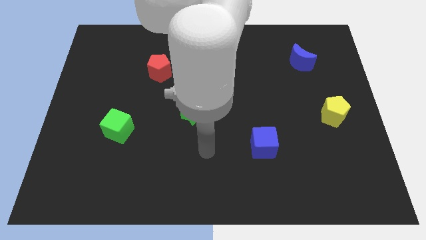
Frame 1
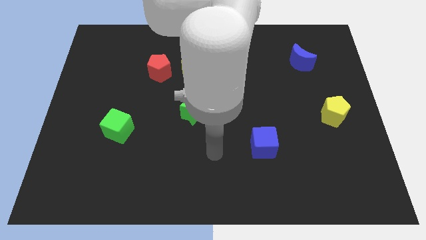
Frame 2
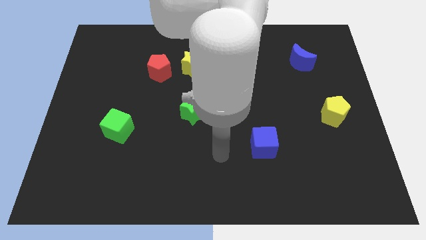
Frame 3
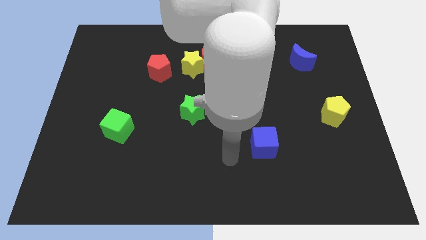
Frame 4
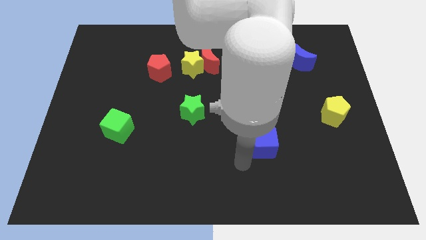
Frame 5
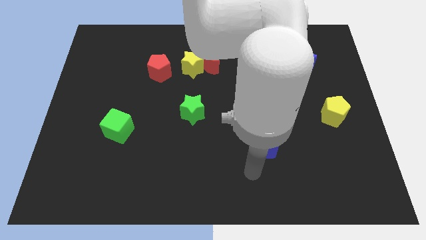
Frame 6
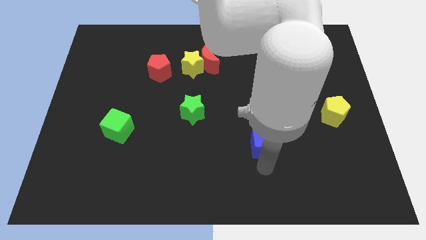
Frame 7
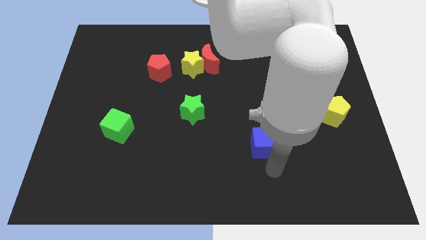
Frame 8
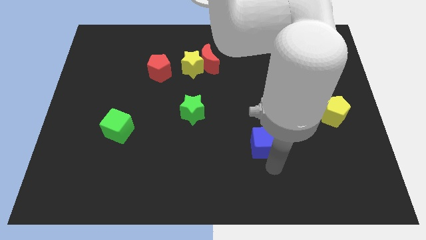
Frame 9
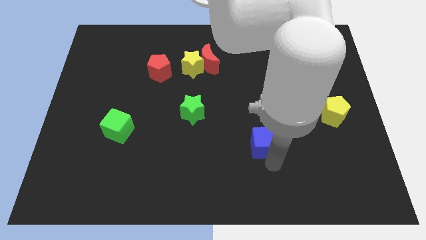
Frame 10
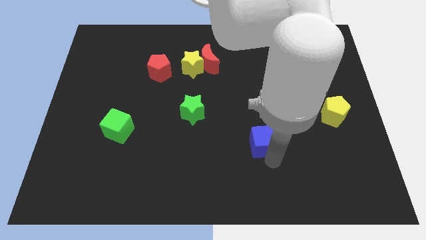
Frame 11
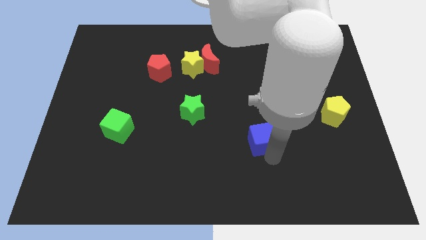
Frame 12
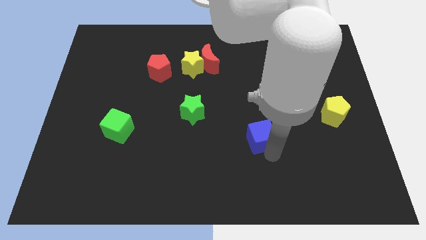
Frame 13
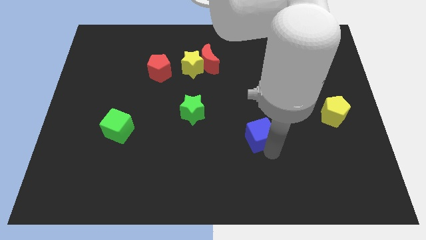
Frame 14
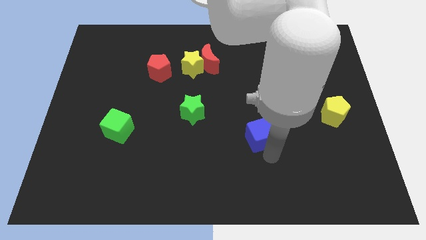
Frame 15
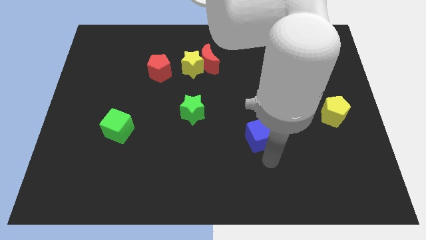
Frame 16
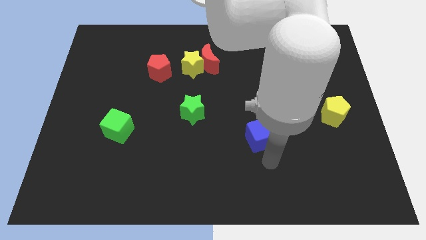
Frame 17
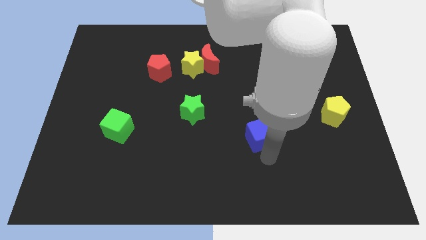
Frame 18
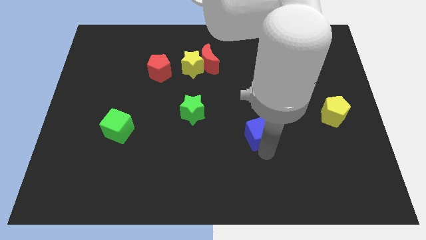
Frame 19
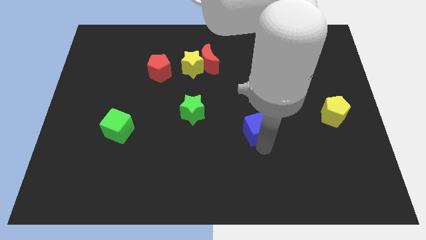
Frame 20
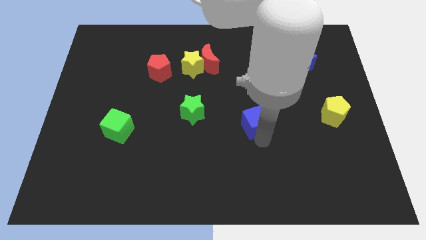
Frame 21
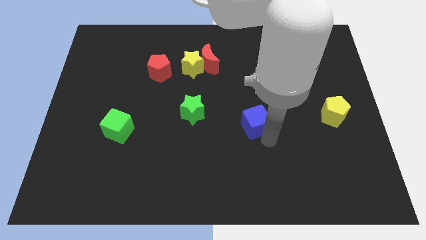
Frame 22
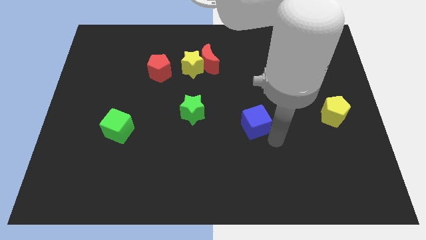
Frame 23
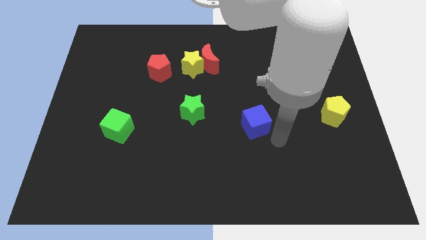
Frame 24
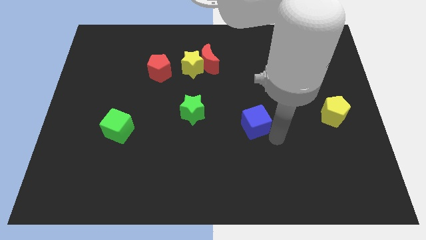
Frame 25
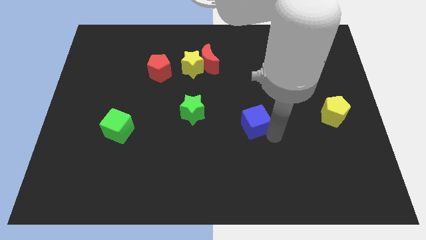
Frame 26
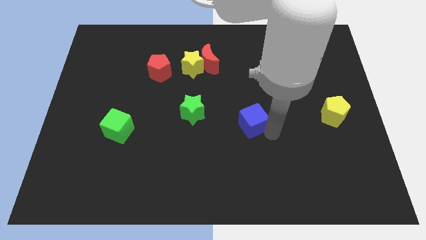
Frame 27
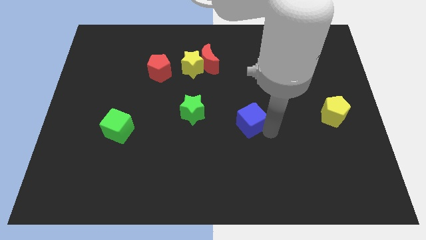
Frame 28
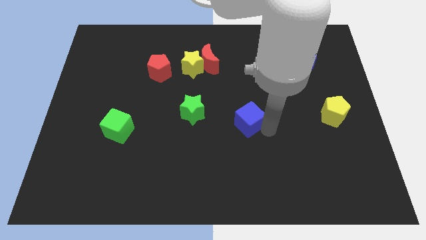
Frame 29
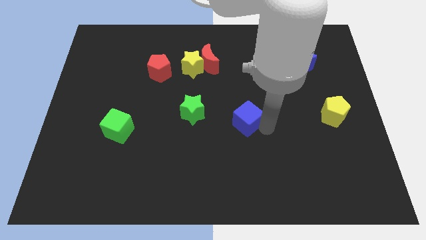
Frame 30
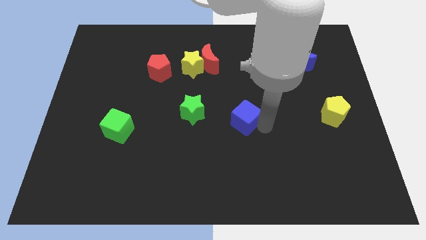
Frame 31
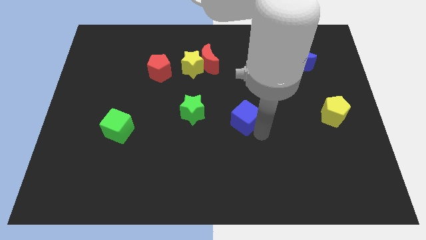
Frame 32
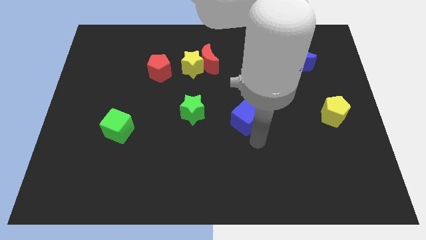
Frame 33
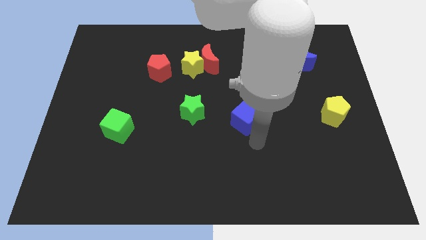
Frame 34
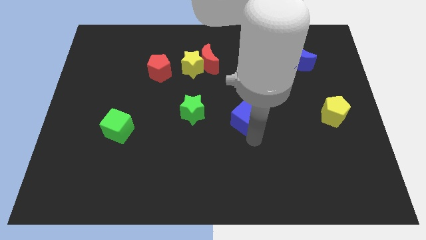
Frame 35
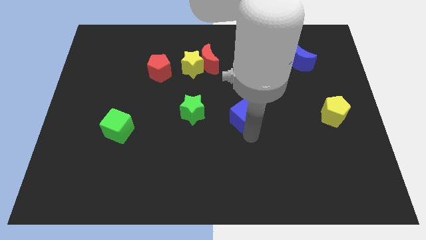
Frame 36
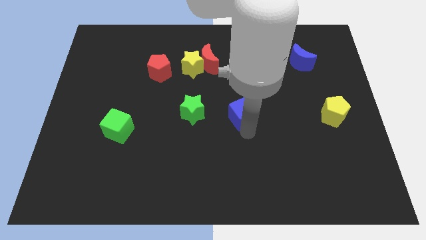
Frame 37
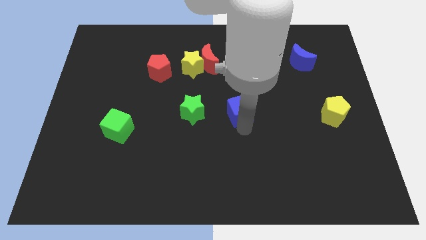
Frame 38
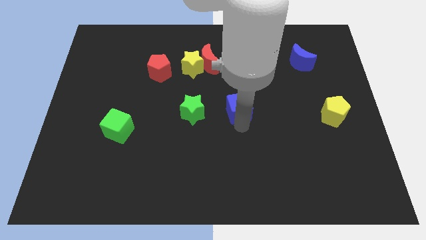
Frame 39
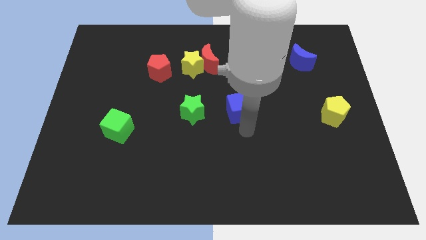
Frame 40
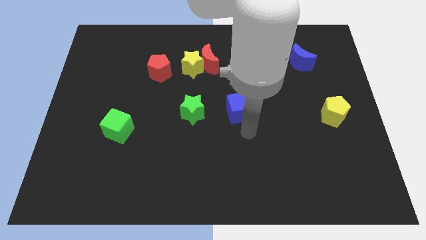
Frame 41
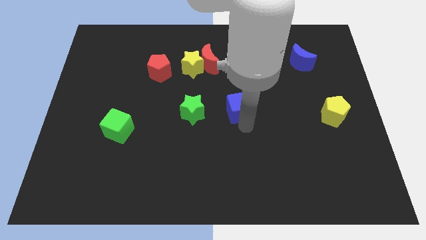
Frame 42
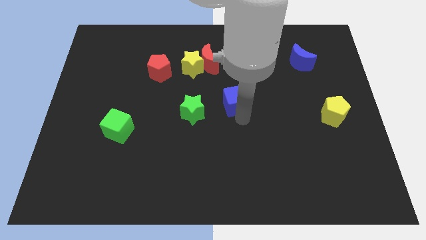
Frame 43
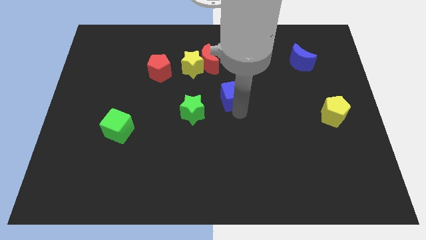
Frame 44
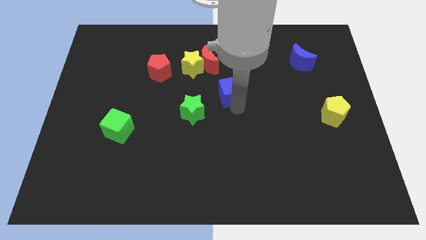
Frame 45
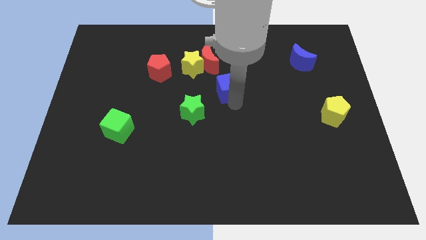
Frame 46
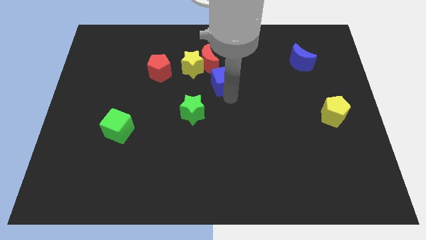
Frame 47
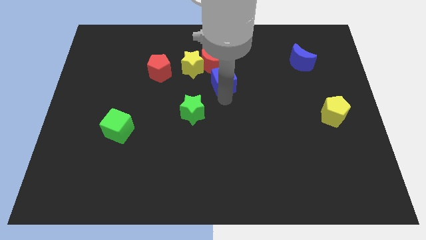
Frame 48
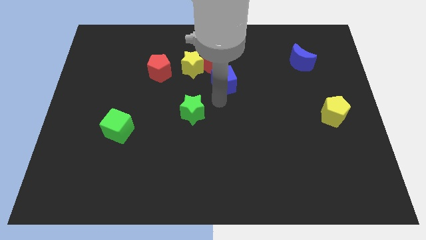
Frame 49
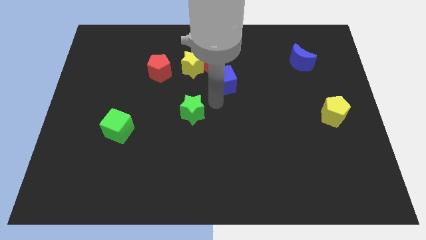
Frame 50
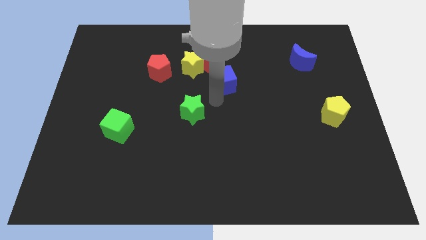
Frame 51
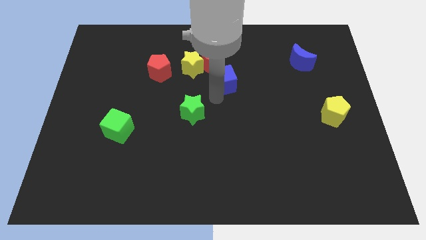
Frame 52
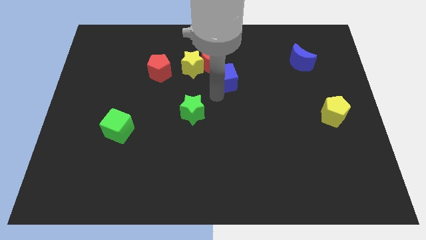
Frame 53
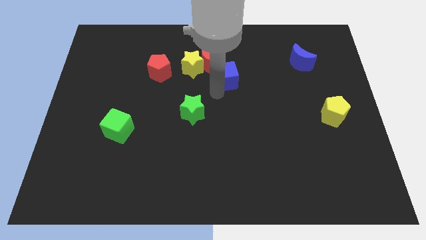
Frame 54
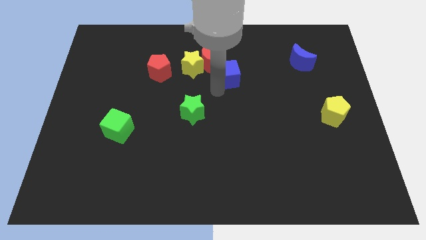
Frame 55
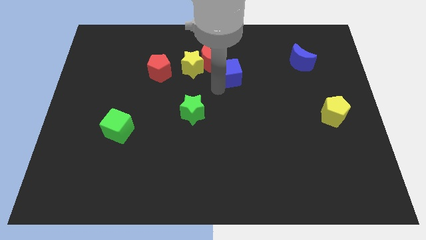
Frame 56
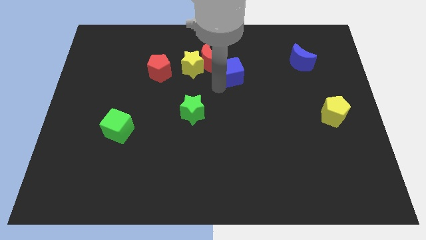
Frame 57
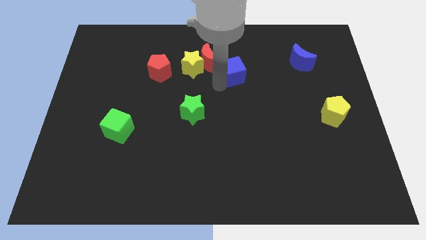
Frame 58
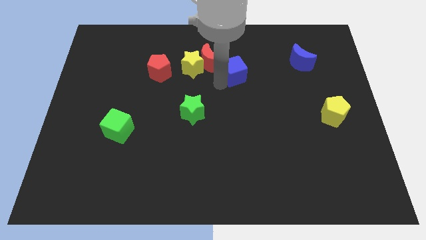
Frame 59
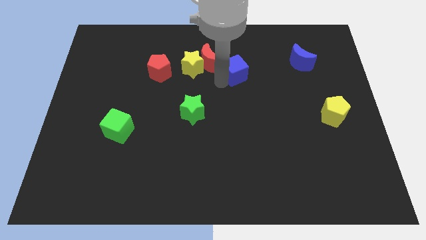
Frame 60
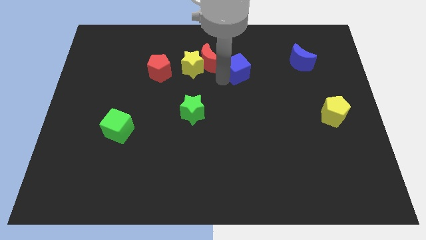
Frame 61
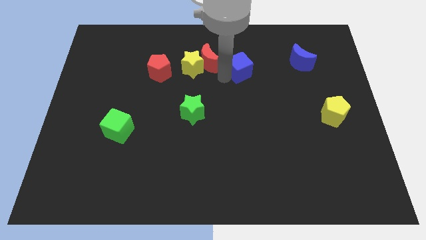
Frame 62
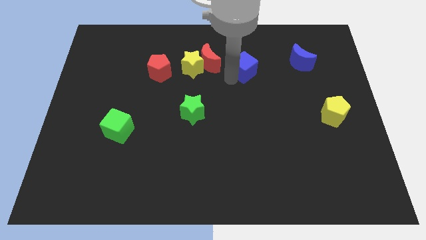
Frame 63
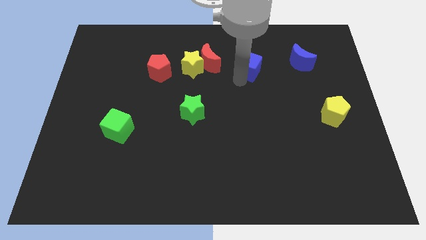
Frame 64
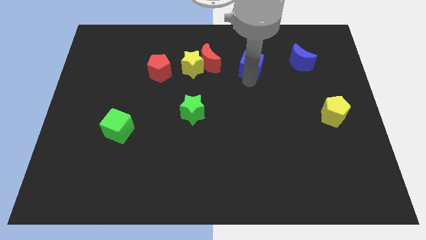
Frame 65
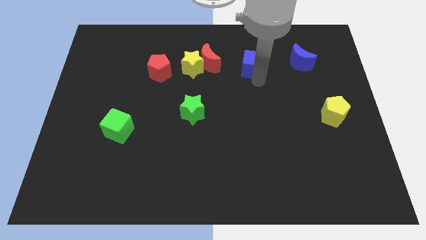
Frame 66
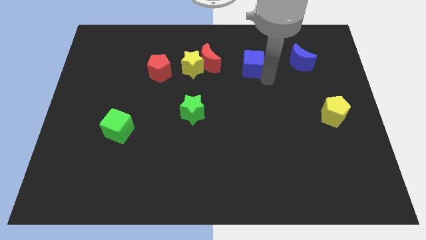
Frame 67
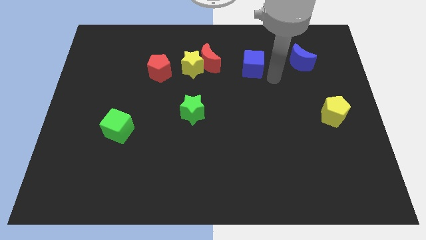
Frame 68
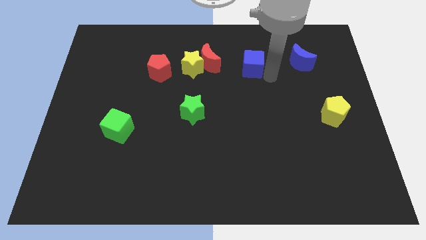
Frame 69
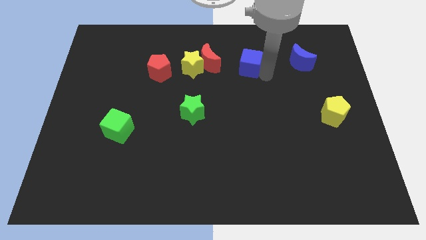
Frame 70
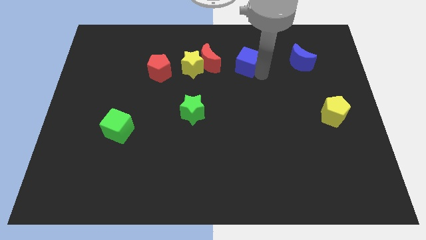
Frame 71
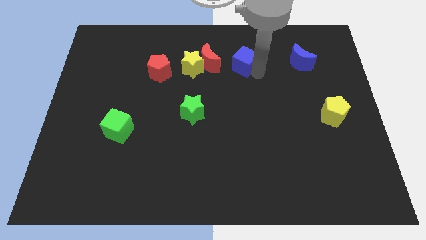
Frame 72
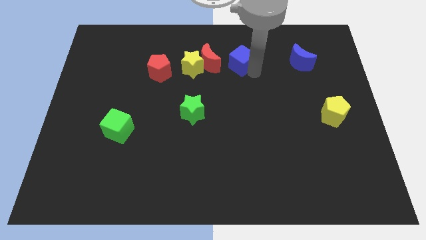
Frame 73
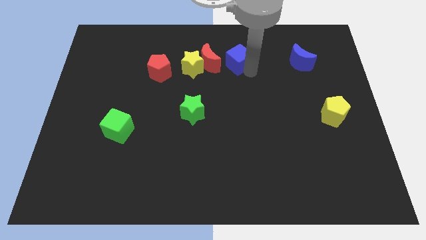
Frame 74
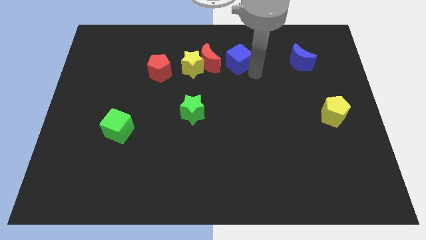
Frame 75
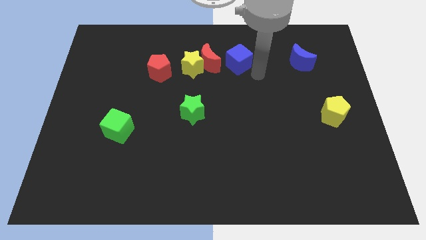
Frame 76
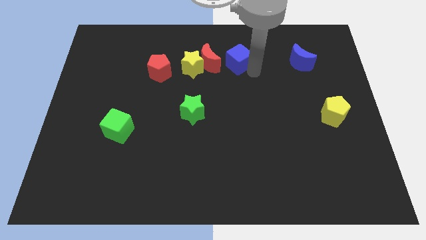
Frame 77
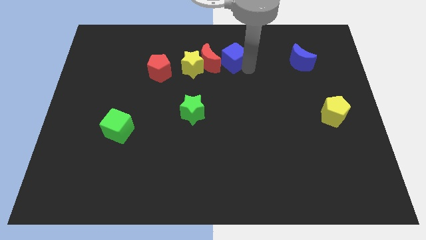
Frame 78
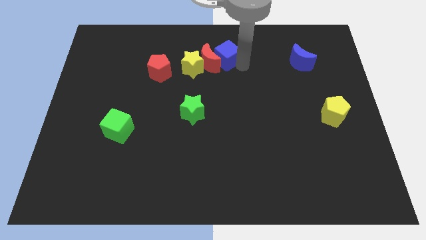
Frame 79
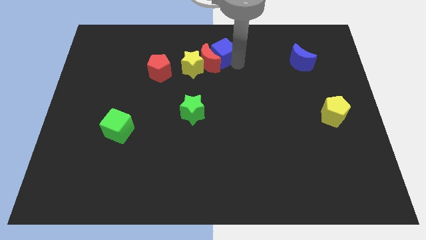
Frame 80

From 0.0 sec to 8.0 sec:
put the blue cube to the top side
